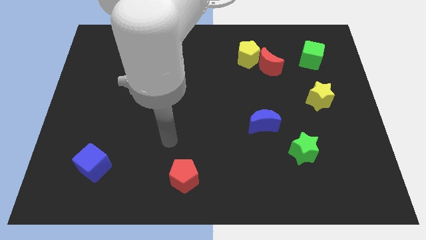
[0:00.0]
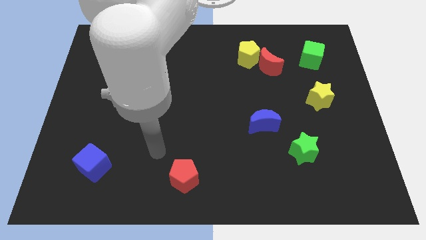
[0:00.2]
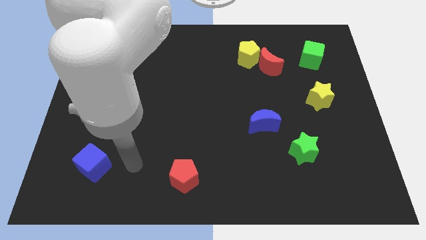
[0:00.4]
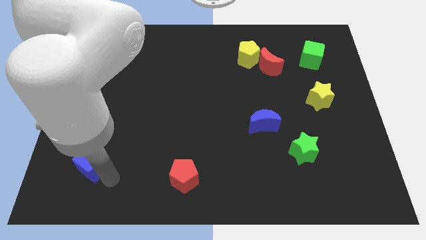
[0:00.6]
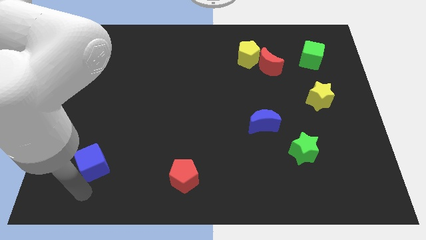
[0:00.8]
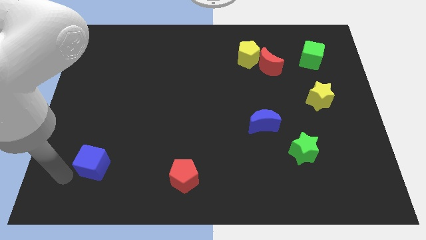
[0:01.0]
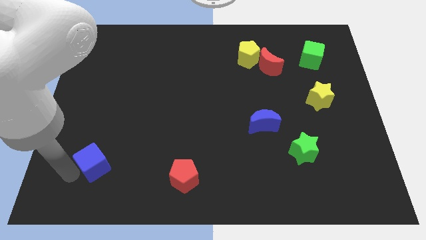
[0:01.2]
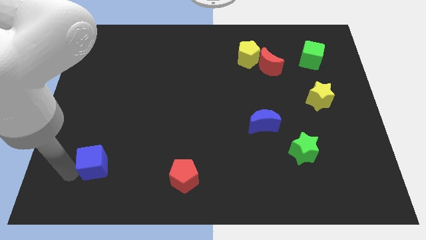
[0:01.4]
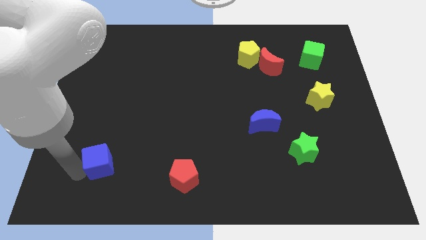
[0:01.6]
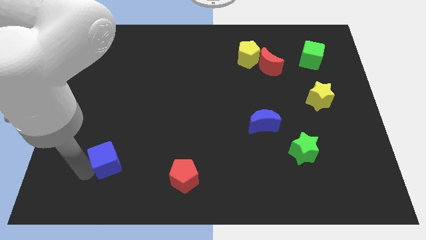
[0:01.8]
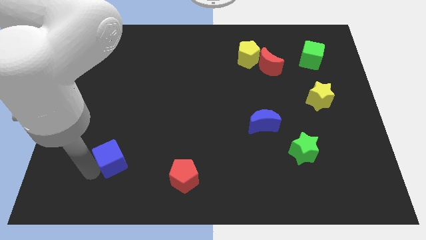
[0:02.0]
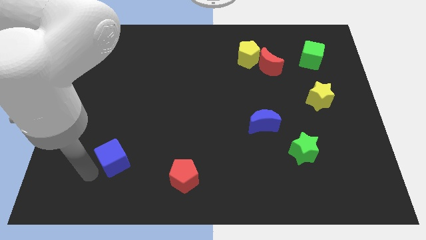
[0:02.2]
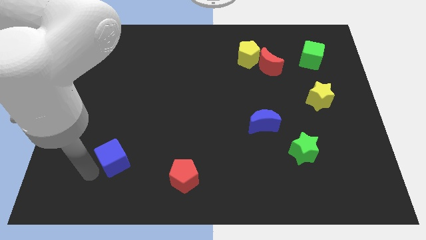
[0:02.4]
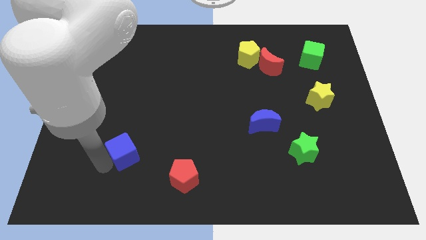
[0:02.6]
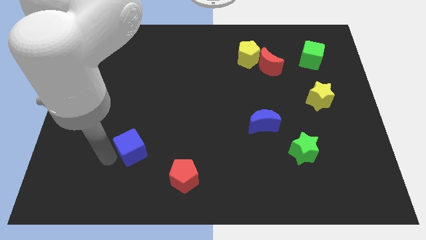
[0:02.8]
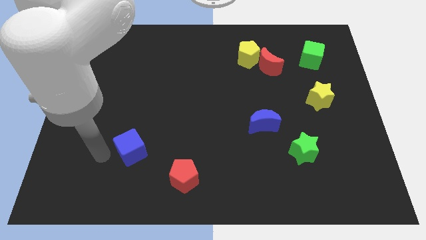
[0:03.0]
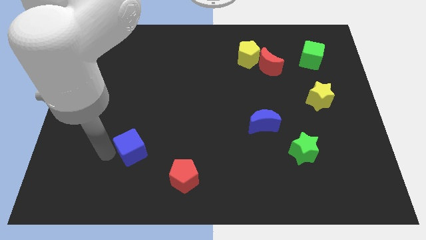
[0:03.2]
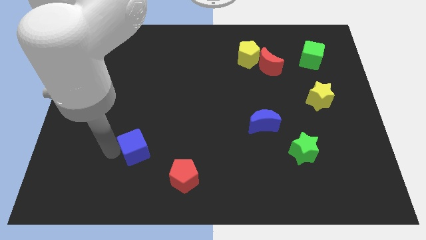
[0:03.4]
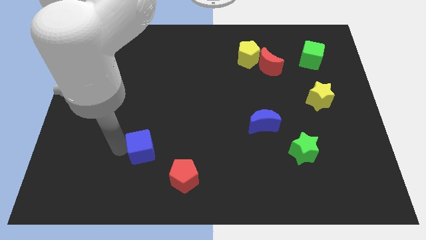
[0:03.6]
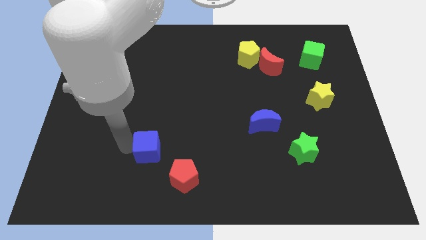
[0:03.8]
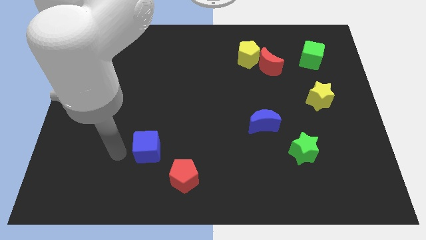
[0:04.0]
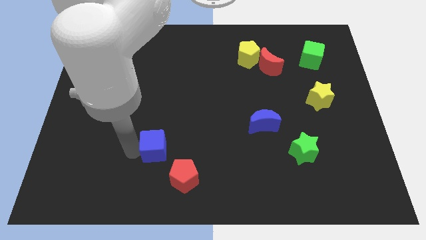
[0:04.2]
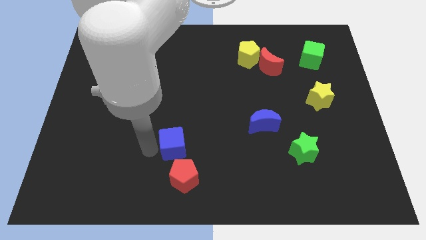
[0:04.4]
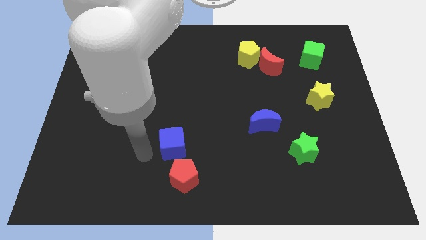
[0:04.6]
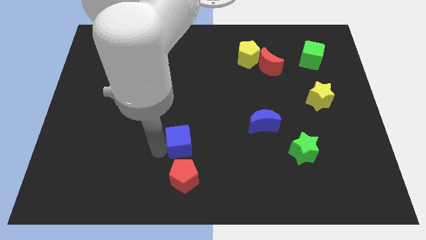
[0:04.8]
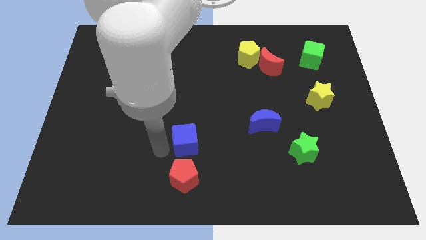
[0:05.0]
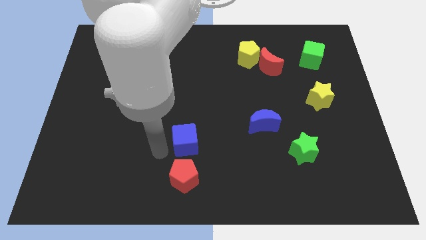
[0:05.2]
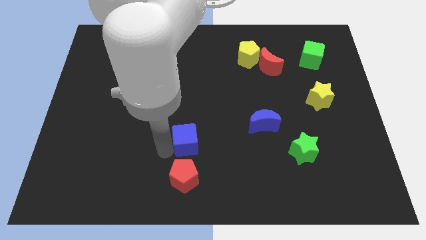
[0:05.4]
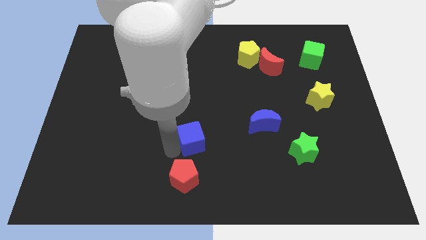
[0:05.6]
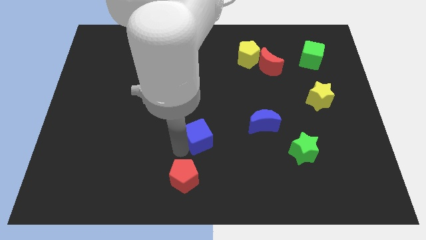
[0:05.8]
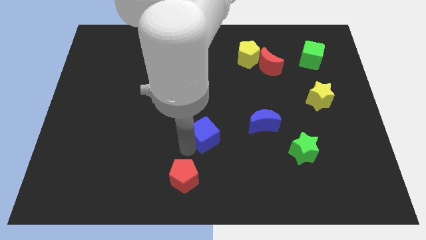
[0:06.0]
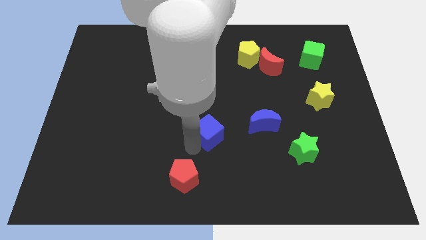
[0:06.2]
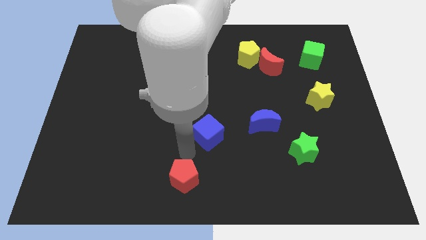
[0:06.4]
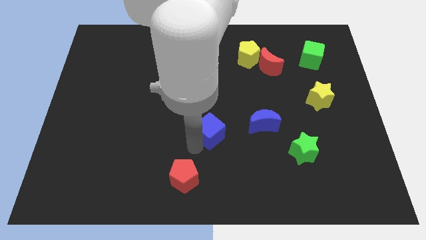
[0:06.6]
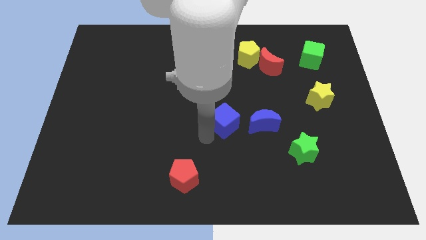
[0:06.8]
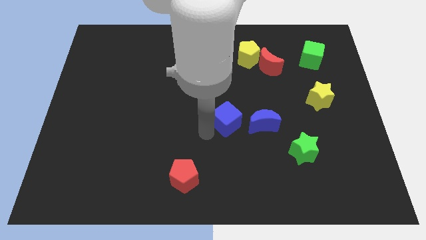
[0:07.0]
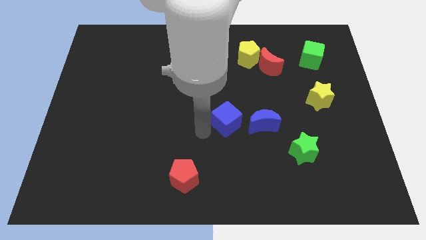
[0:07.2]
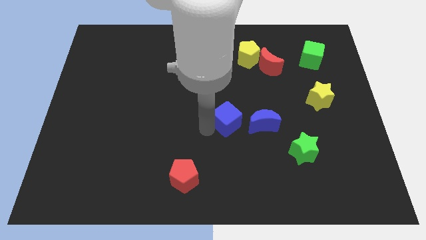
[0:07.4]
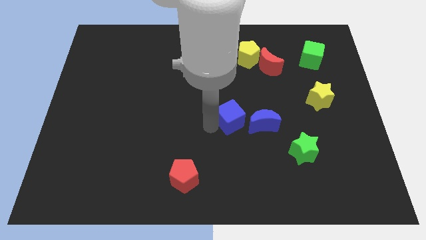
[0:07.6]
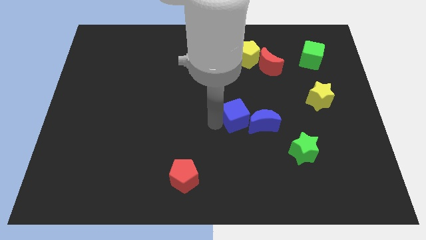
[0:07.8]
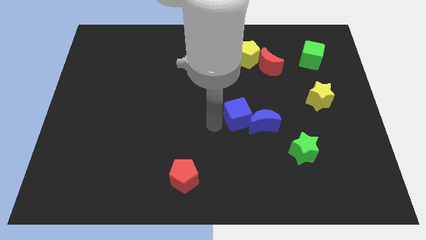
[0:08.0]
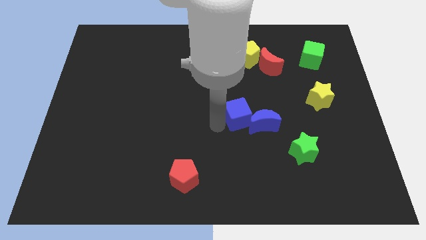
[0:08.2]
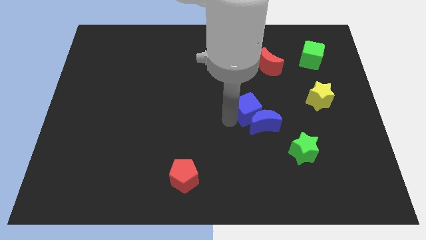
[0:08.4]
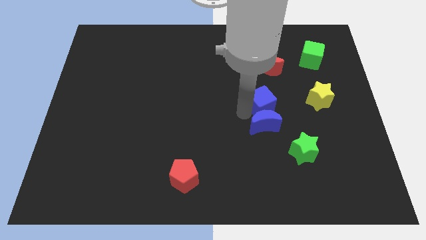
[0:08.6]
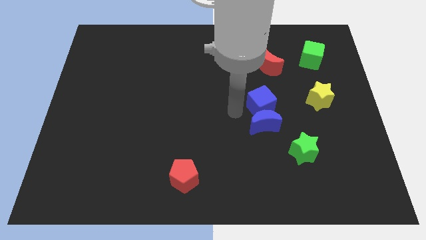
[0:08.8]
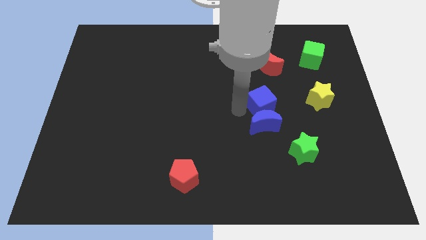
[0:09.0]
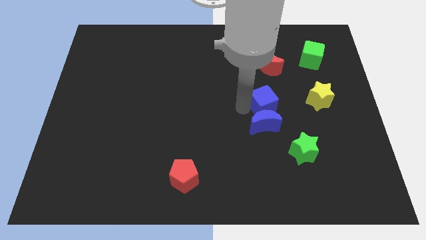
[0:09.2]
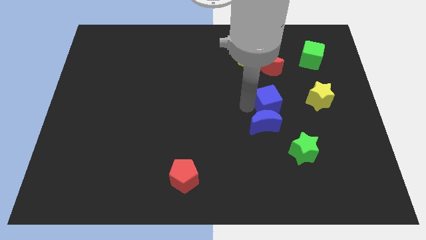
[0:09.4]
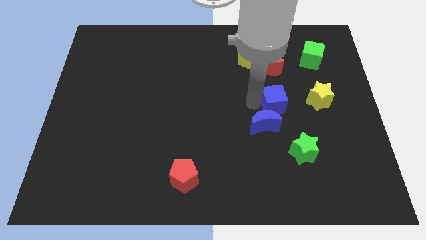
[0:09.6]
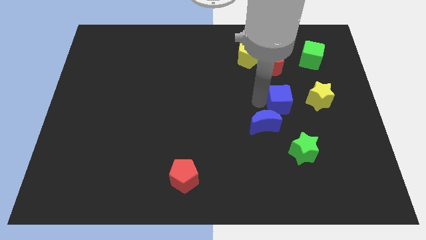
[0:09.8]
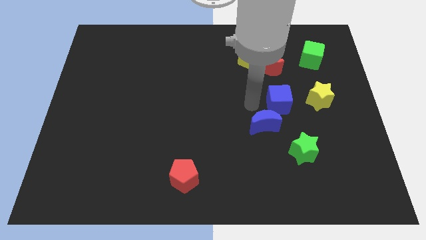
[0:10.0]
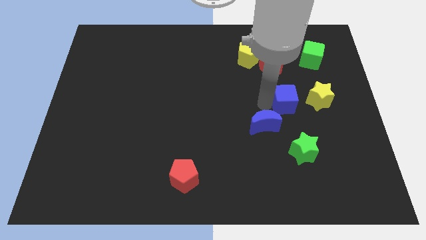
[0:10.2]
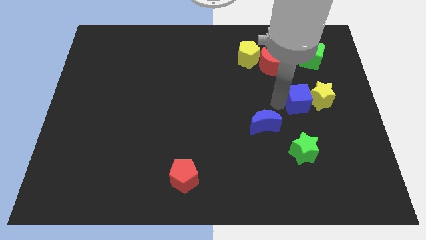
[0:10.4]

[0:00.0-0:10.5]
push the blue cube close to the yellow star

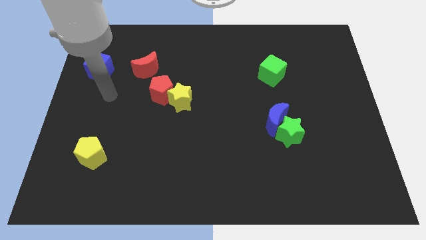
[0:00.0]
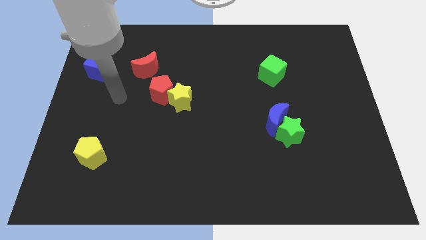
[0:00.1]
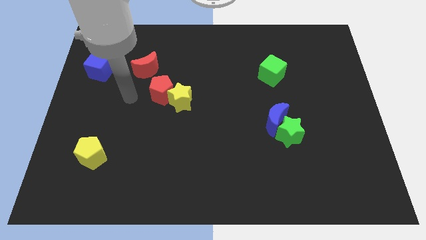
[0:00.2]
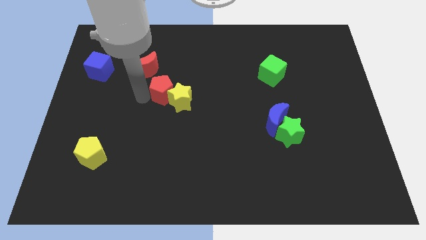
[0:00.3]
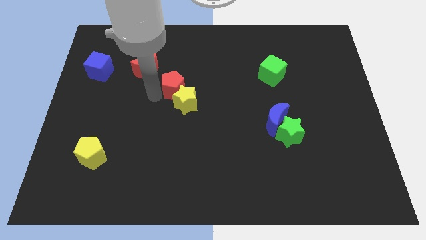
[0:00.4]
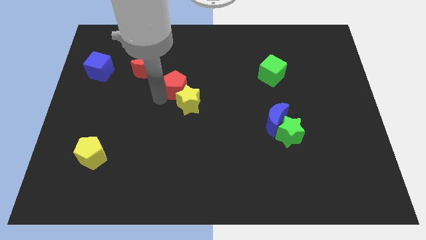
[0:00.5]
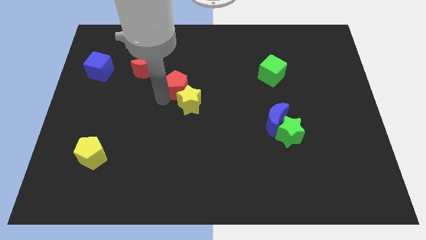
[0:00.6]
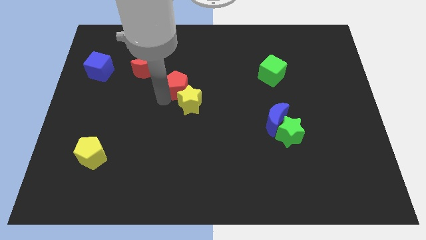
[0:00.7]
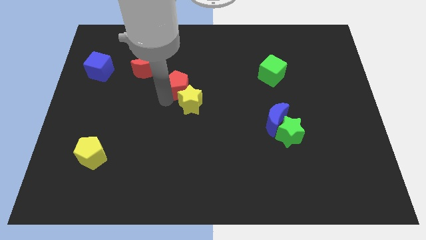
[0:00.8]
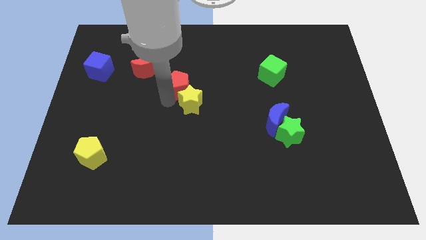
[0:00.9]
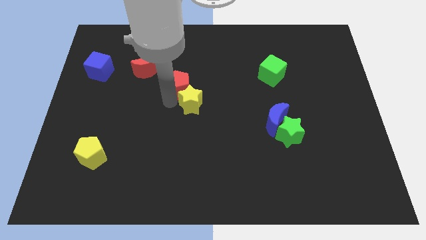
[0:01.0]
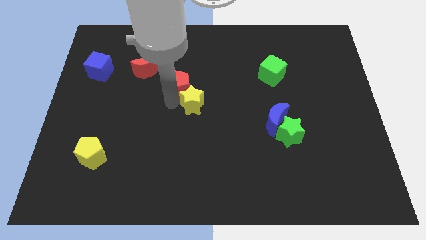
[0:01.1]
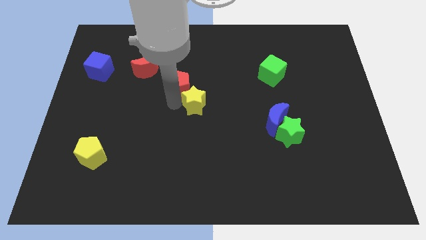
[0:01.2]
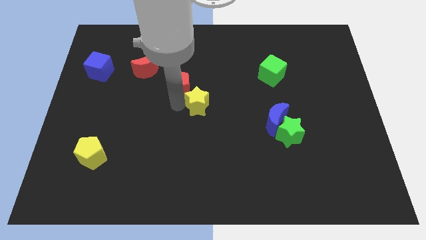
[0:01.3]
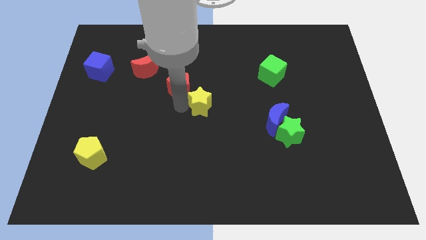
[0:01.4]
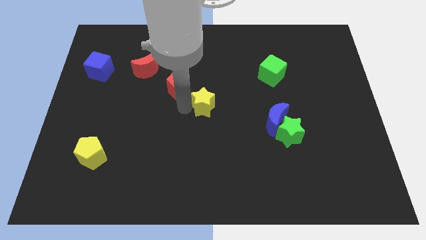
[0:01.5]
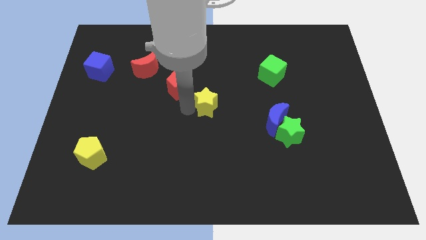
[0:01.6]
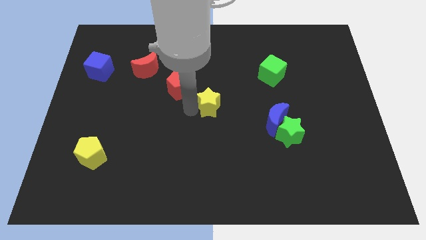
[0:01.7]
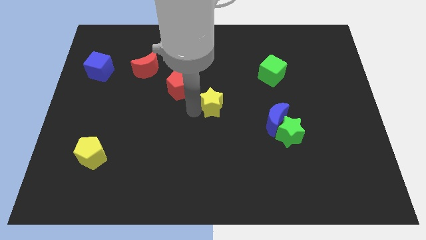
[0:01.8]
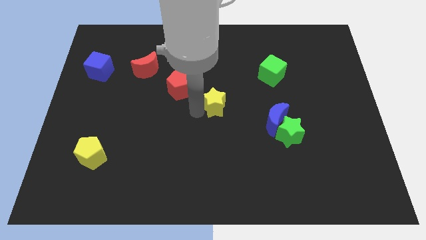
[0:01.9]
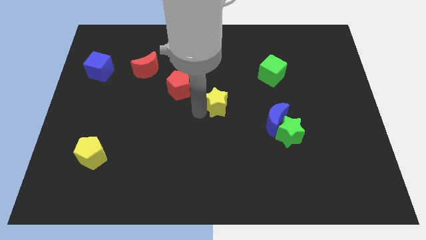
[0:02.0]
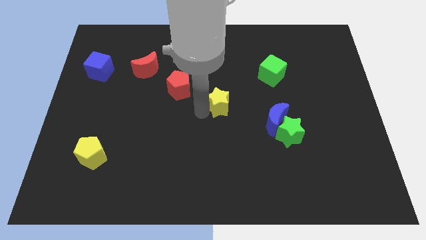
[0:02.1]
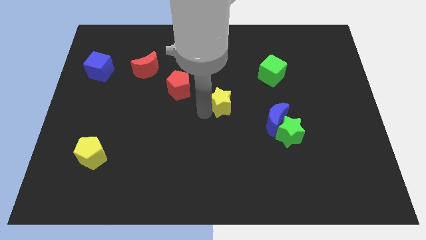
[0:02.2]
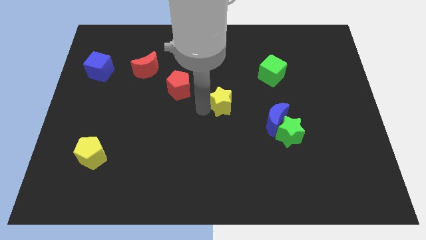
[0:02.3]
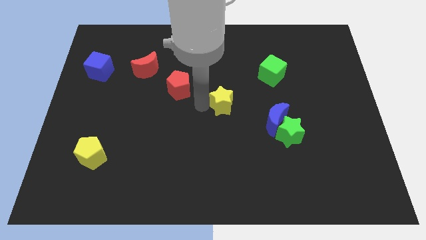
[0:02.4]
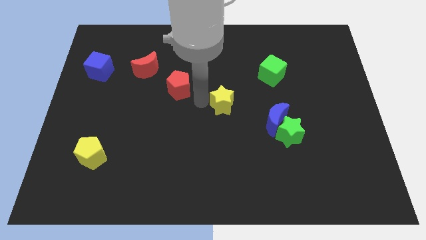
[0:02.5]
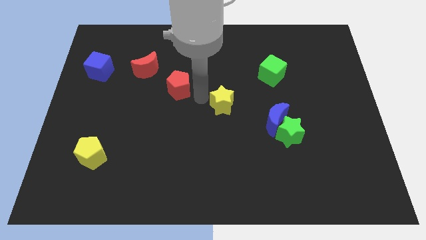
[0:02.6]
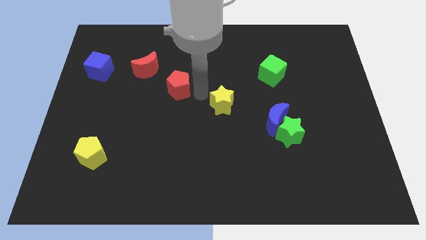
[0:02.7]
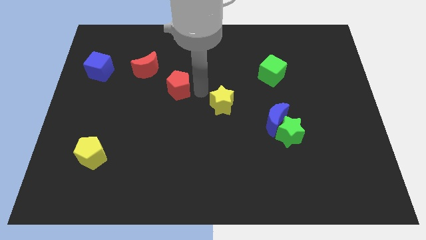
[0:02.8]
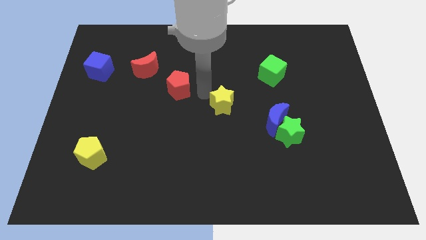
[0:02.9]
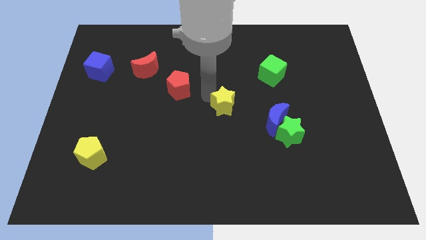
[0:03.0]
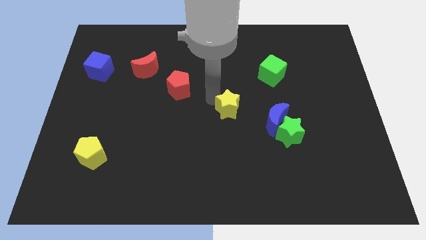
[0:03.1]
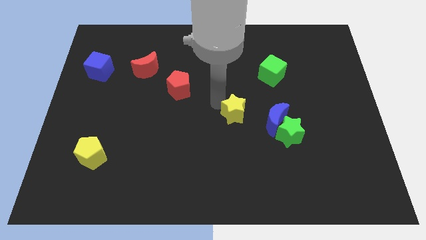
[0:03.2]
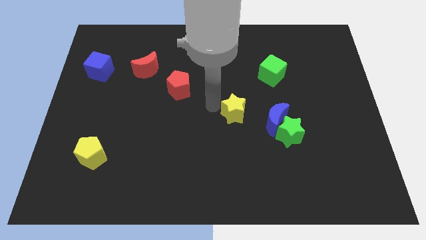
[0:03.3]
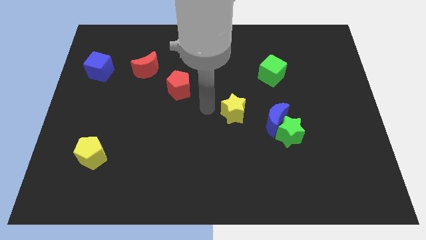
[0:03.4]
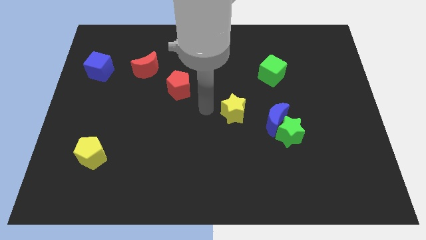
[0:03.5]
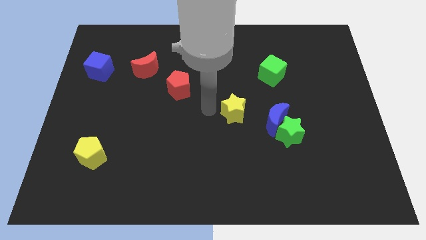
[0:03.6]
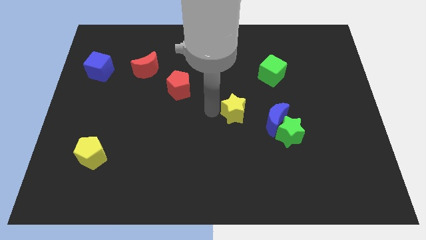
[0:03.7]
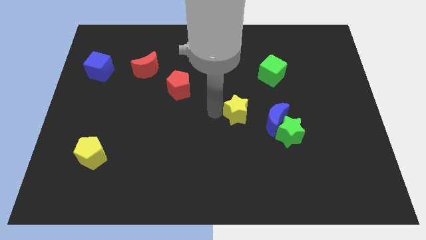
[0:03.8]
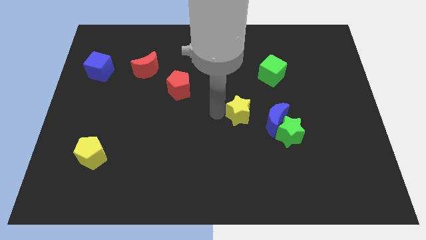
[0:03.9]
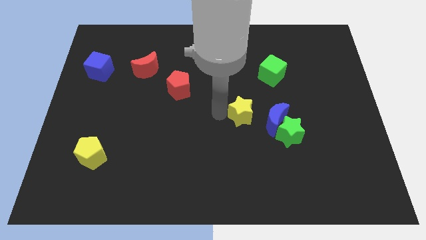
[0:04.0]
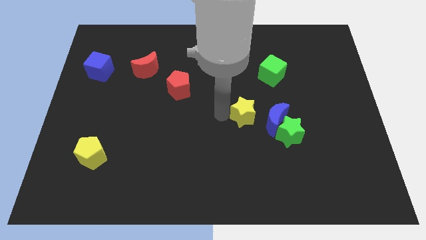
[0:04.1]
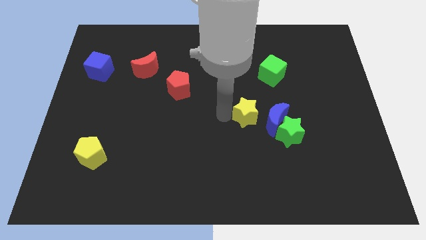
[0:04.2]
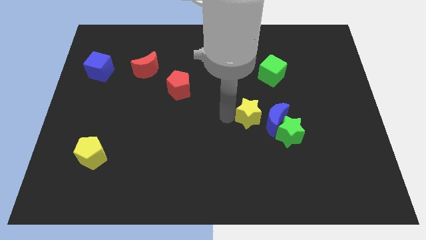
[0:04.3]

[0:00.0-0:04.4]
put the yellow star towards the blue moon
